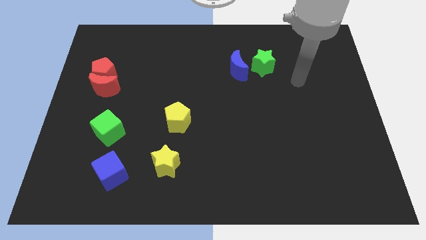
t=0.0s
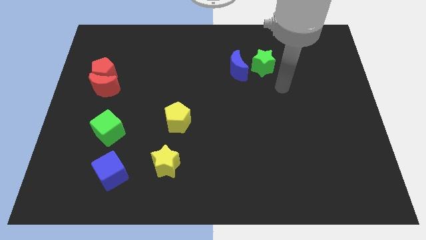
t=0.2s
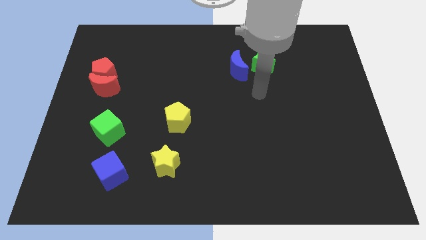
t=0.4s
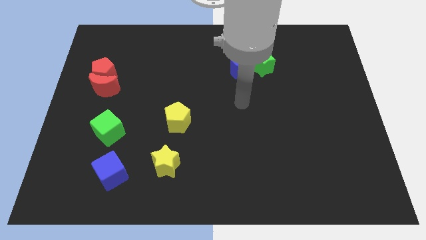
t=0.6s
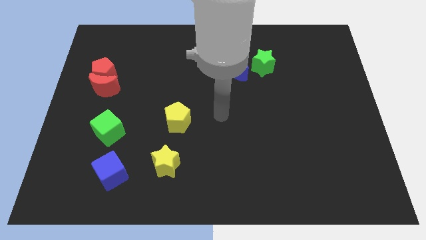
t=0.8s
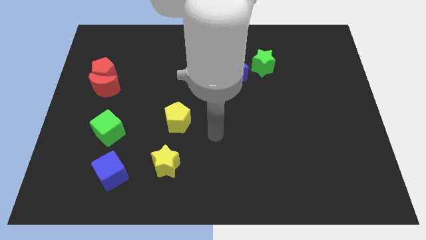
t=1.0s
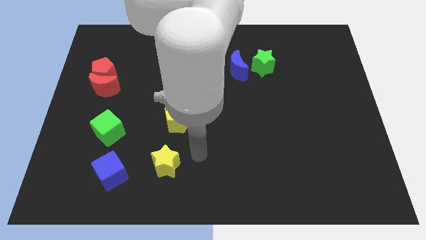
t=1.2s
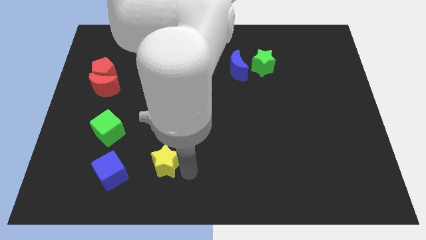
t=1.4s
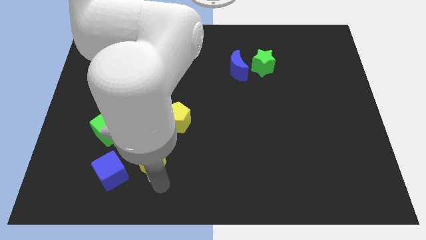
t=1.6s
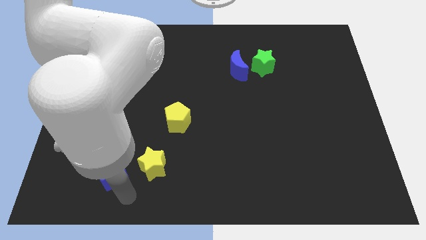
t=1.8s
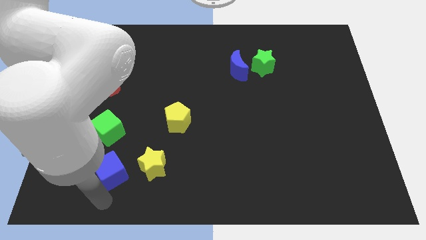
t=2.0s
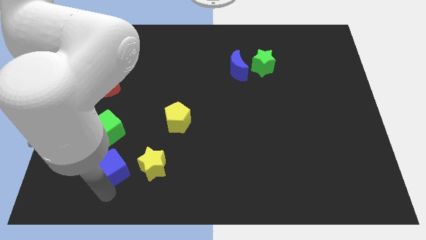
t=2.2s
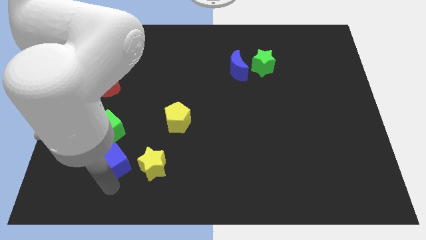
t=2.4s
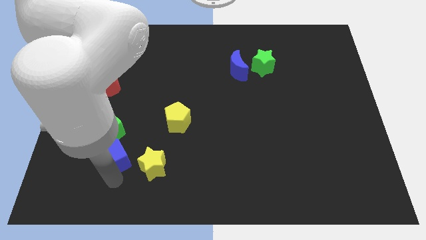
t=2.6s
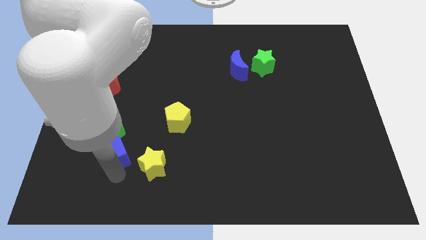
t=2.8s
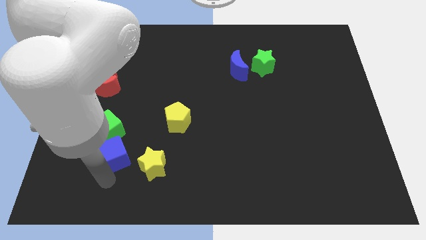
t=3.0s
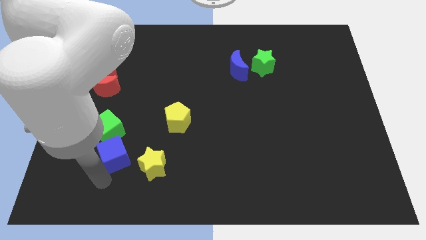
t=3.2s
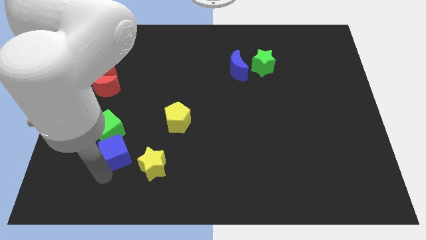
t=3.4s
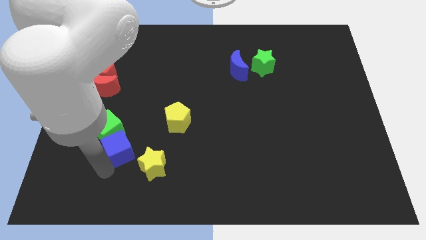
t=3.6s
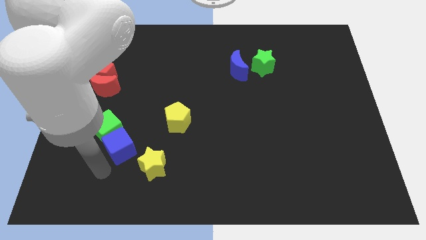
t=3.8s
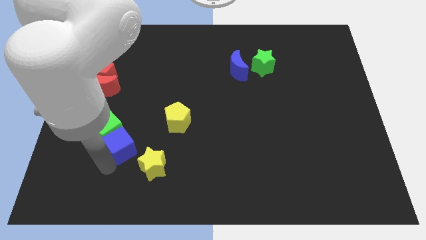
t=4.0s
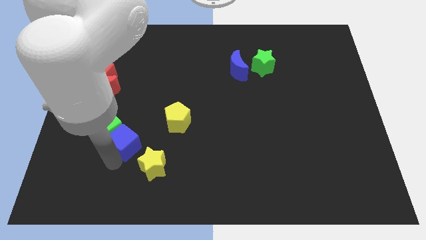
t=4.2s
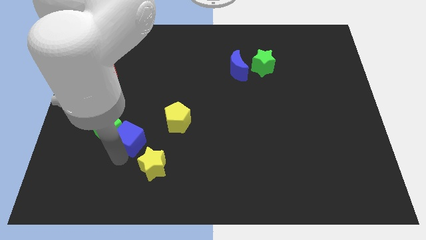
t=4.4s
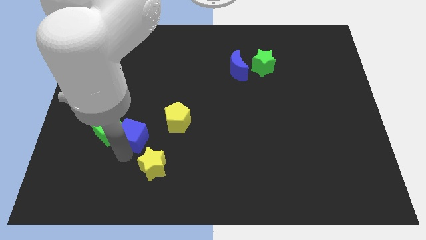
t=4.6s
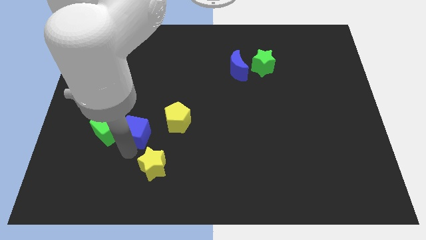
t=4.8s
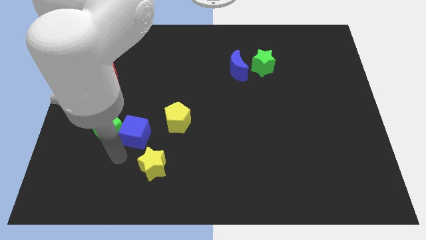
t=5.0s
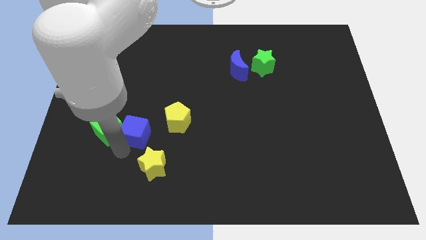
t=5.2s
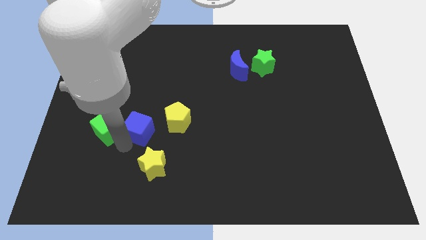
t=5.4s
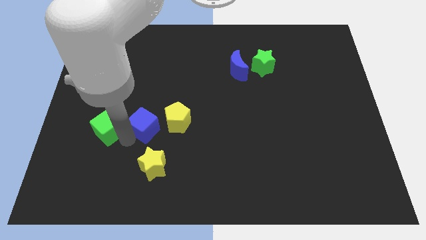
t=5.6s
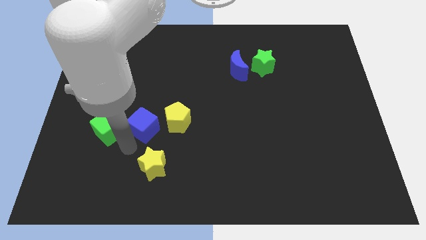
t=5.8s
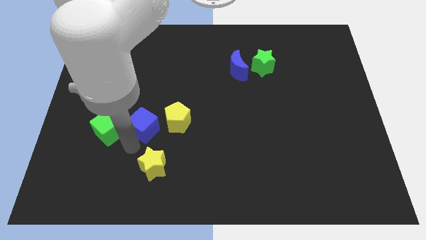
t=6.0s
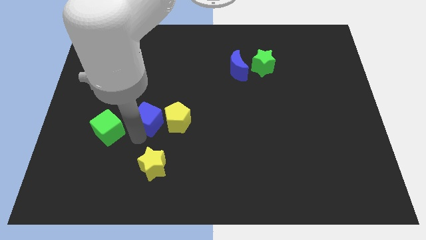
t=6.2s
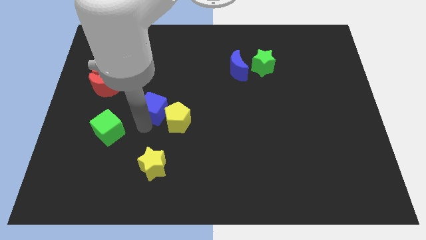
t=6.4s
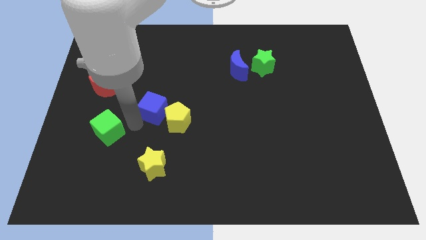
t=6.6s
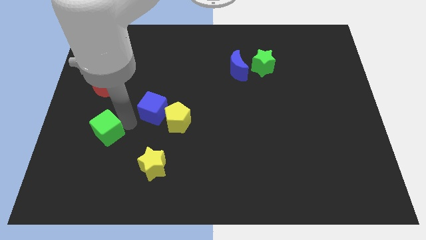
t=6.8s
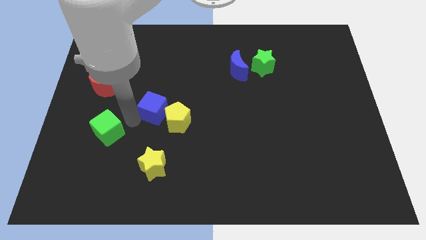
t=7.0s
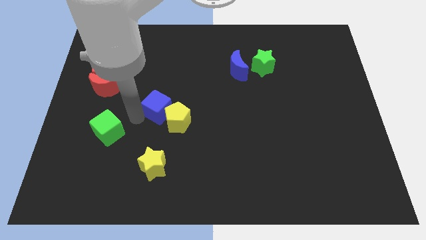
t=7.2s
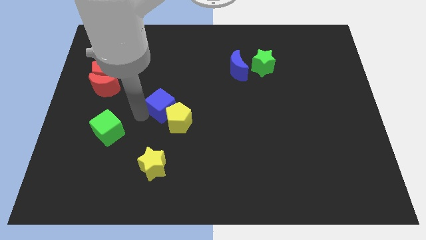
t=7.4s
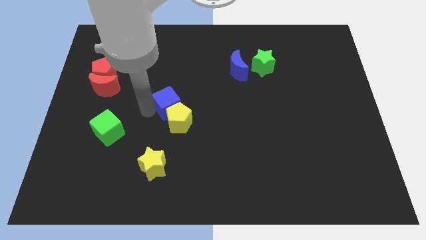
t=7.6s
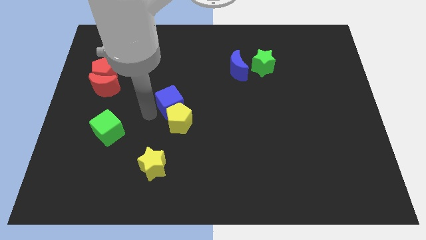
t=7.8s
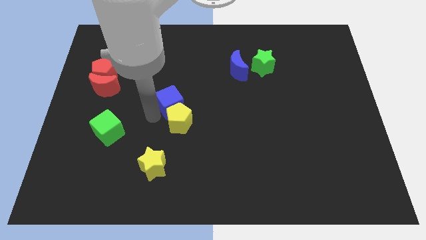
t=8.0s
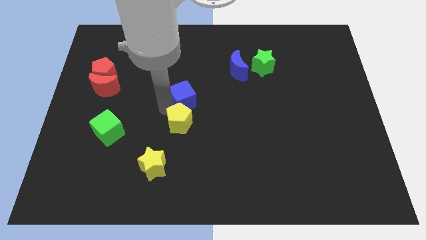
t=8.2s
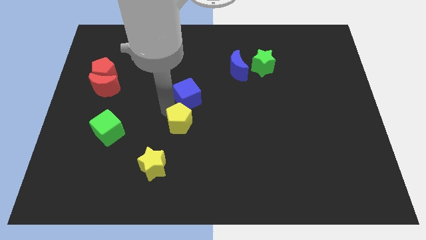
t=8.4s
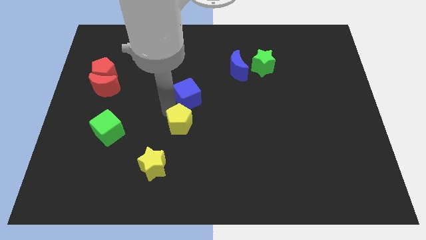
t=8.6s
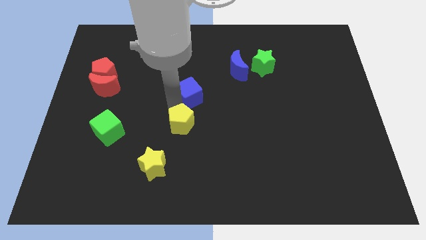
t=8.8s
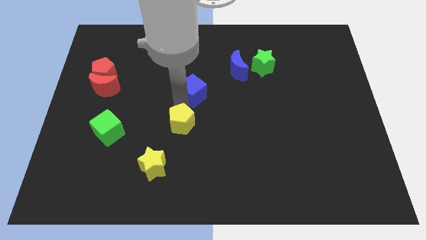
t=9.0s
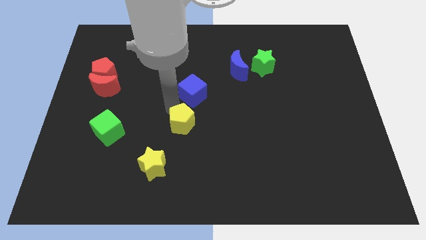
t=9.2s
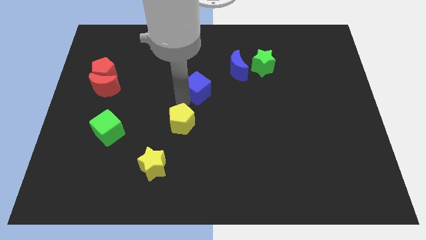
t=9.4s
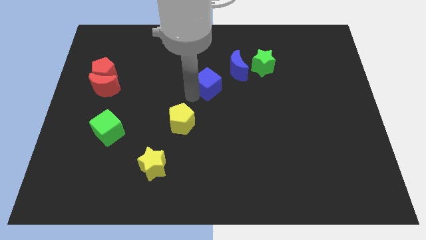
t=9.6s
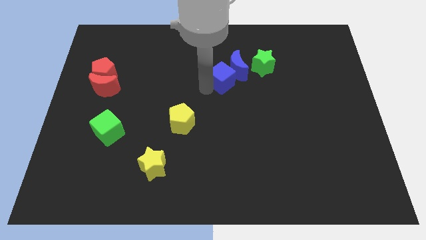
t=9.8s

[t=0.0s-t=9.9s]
push the blue cube close to the blue moon

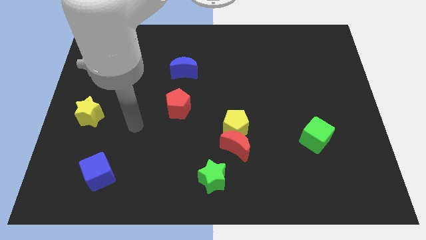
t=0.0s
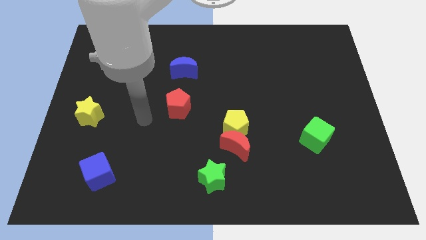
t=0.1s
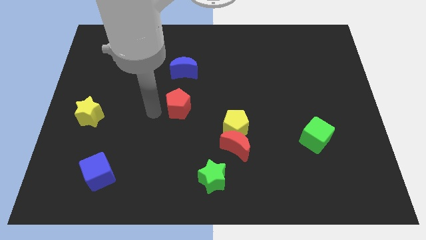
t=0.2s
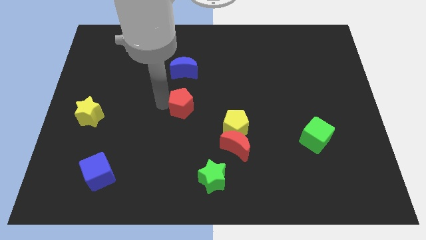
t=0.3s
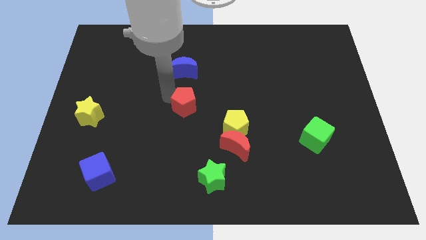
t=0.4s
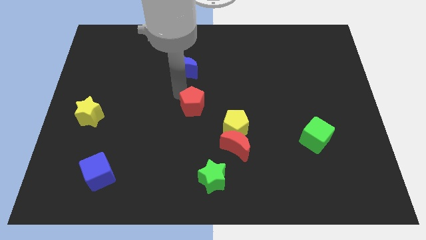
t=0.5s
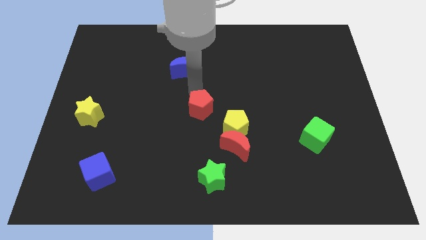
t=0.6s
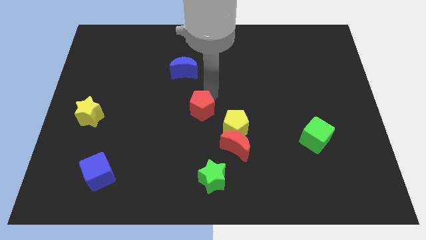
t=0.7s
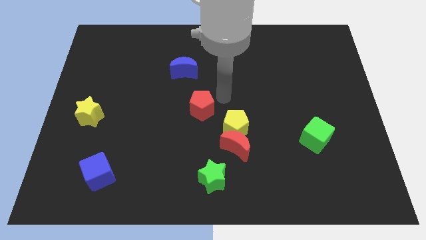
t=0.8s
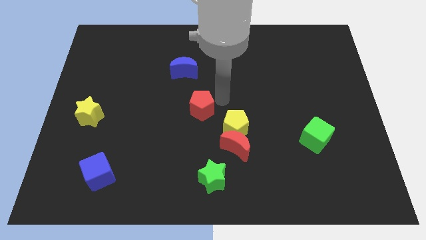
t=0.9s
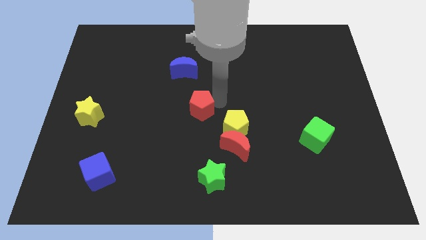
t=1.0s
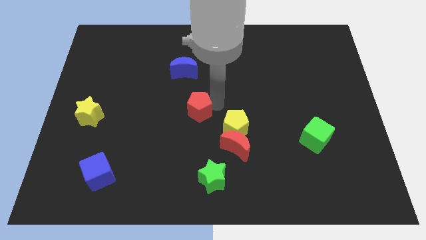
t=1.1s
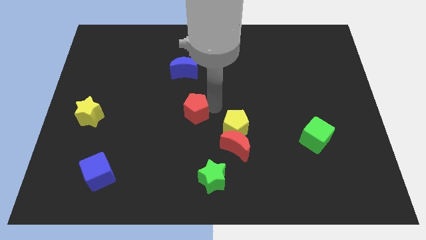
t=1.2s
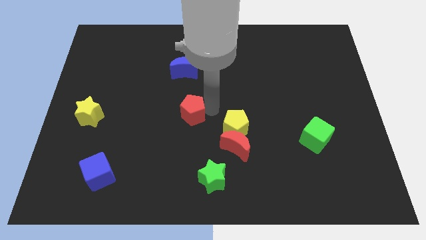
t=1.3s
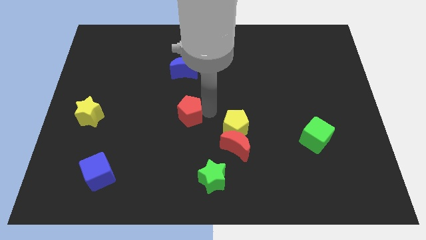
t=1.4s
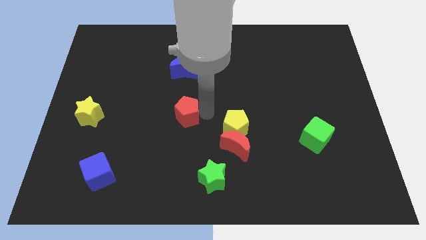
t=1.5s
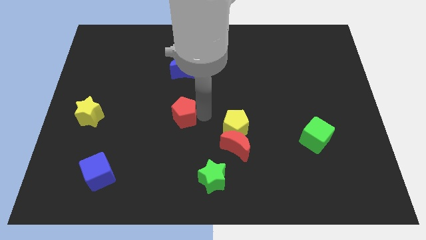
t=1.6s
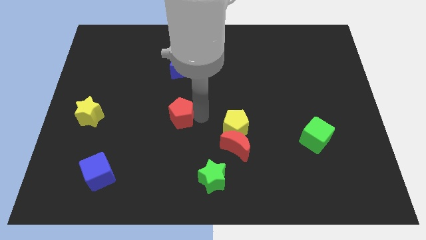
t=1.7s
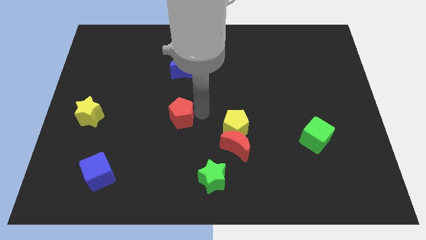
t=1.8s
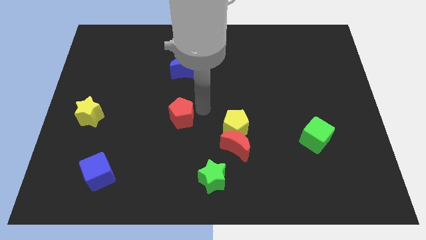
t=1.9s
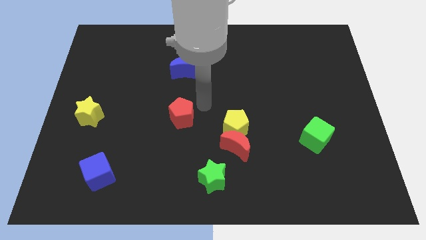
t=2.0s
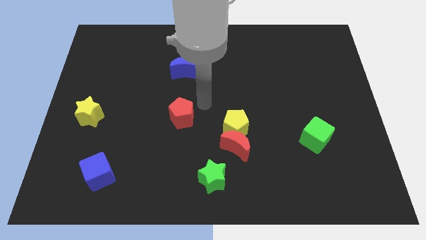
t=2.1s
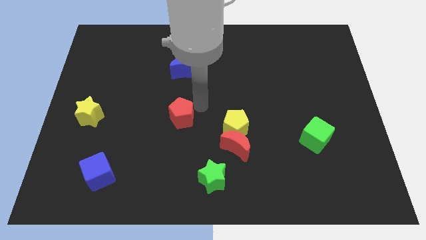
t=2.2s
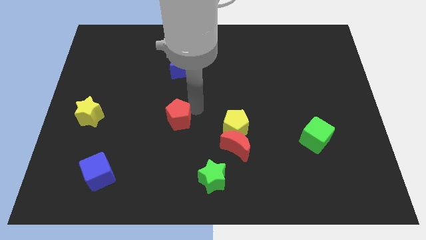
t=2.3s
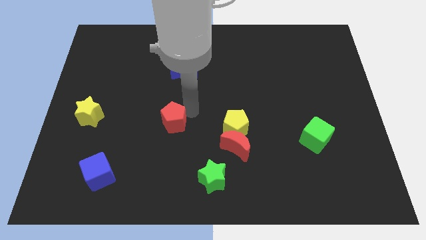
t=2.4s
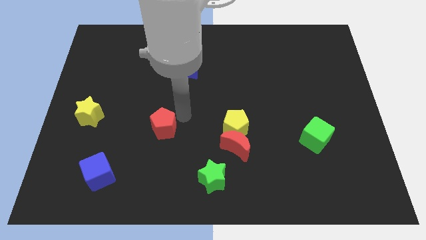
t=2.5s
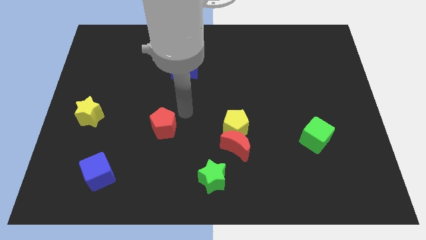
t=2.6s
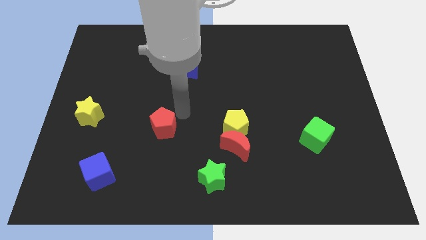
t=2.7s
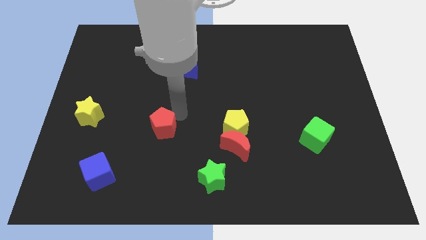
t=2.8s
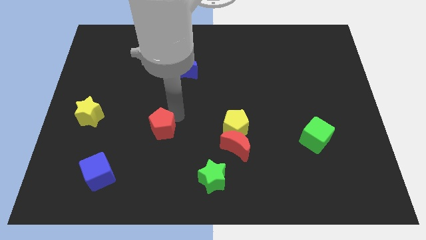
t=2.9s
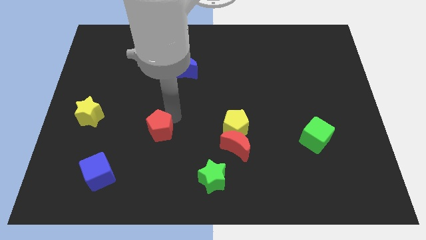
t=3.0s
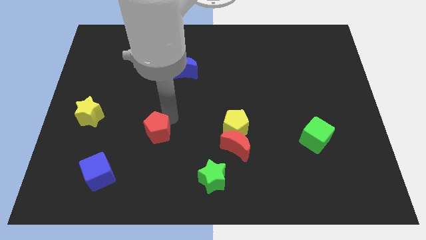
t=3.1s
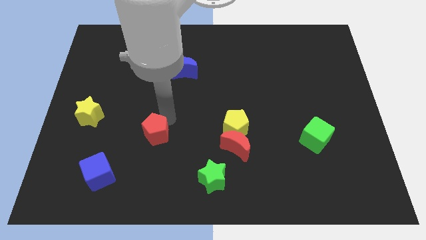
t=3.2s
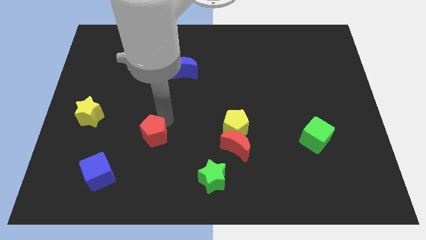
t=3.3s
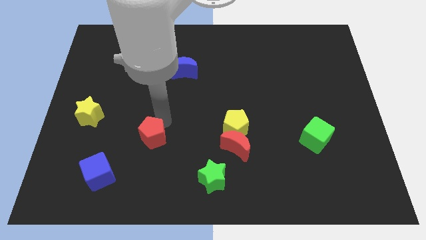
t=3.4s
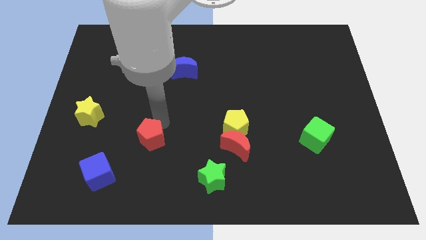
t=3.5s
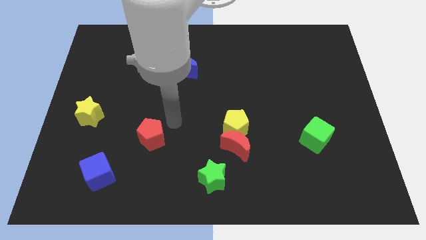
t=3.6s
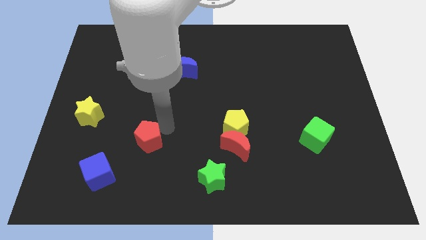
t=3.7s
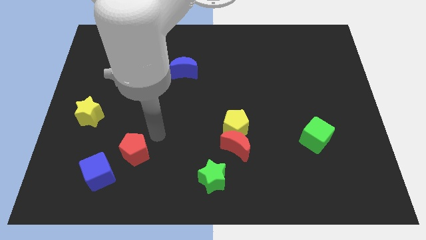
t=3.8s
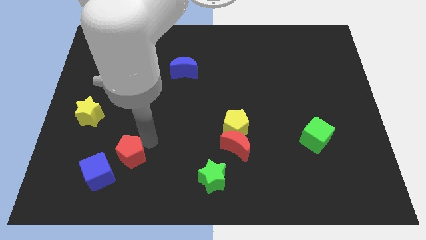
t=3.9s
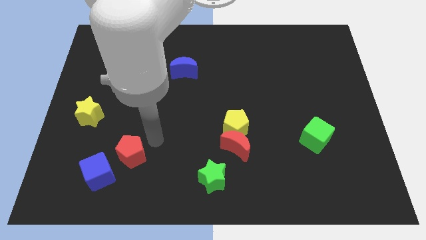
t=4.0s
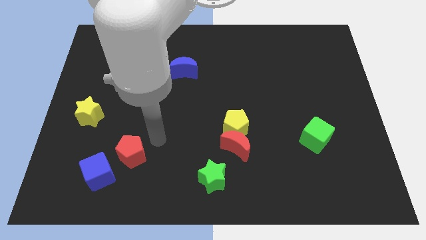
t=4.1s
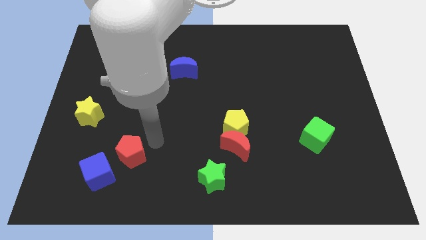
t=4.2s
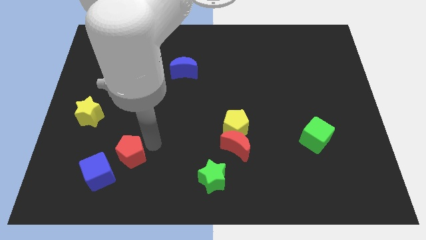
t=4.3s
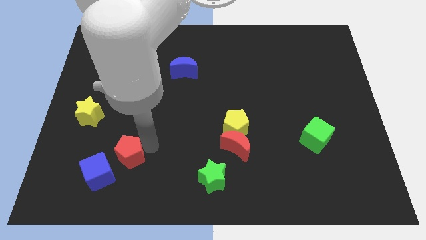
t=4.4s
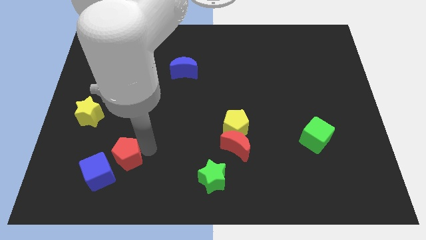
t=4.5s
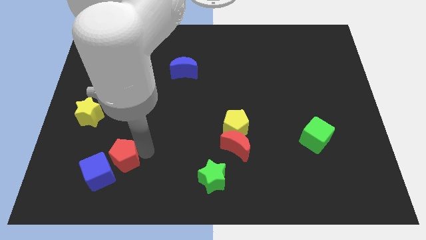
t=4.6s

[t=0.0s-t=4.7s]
put the red pentagon close to the blue cube
